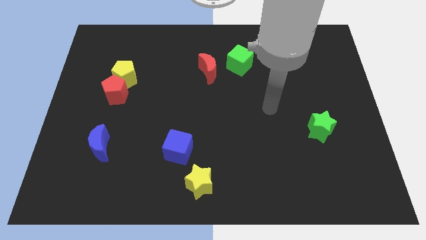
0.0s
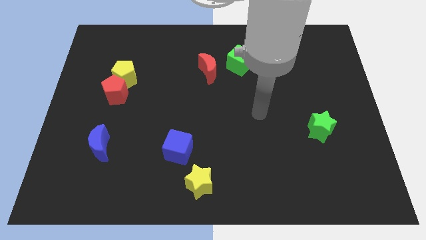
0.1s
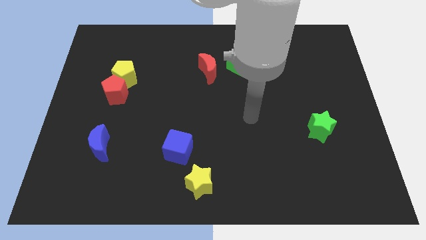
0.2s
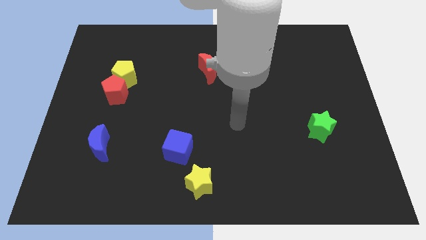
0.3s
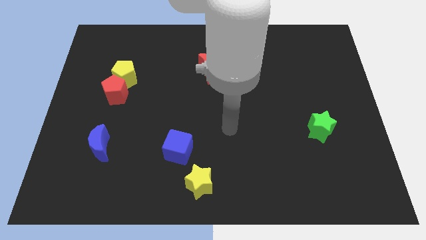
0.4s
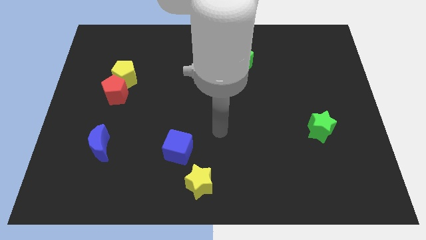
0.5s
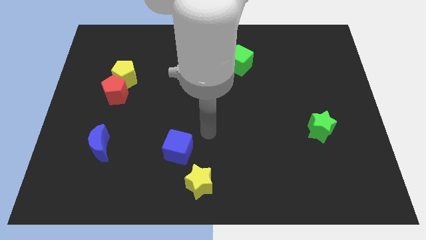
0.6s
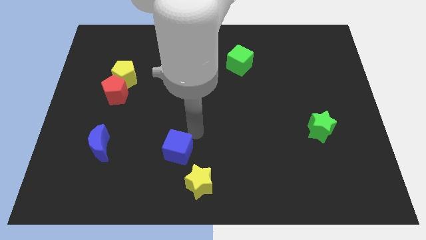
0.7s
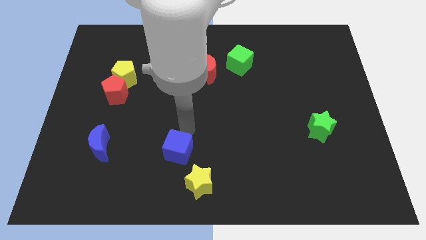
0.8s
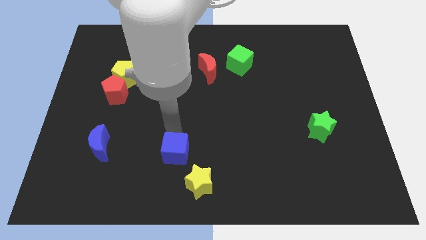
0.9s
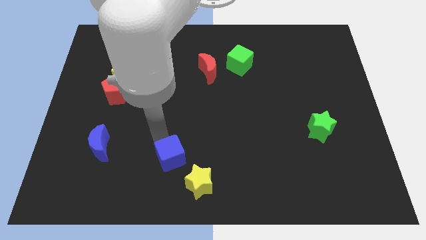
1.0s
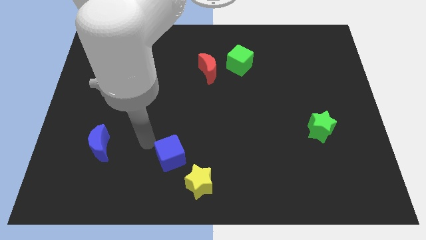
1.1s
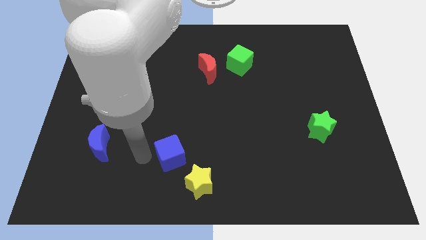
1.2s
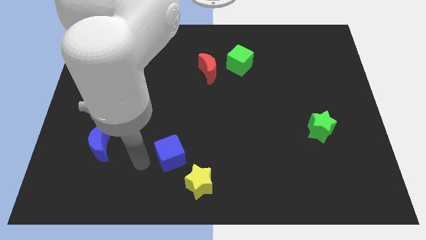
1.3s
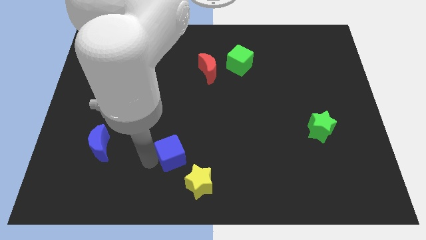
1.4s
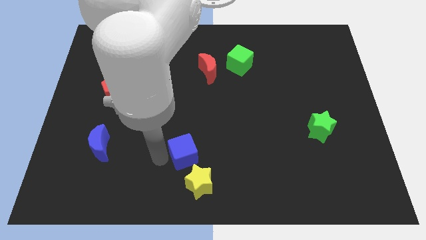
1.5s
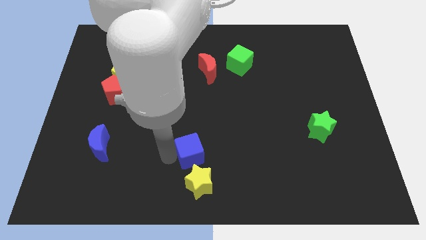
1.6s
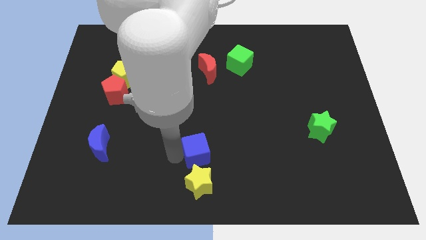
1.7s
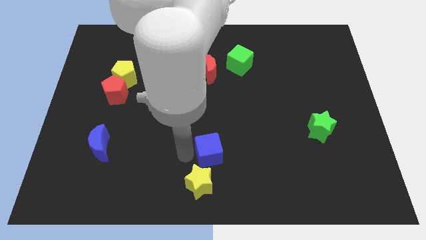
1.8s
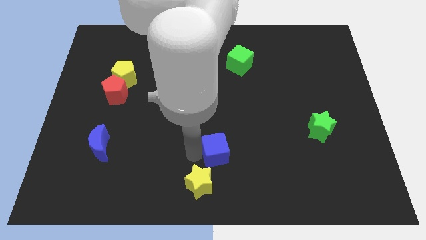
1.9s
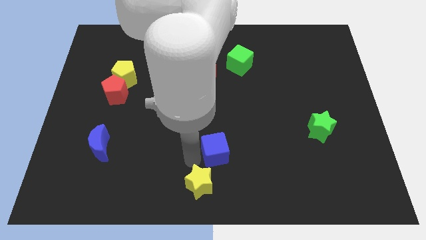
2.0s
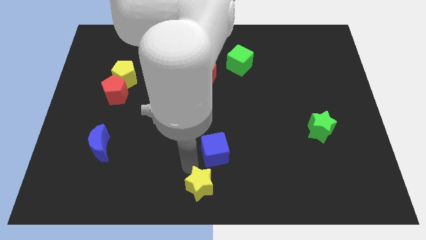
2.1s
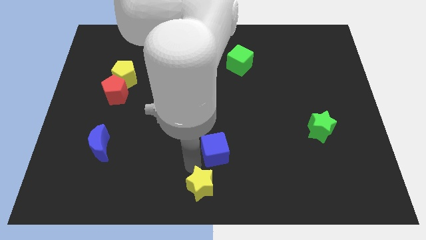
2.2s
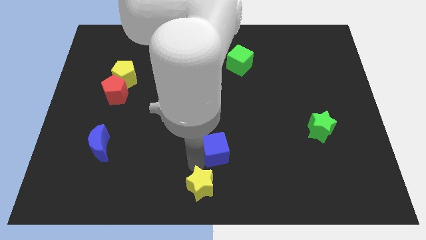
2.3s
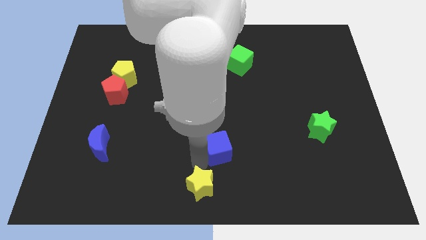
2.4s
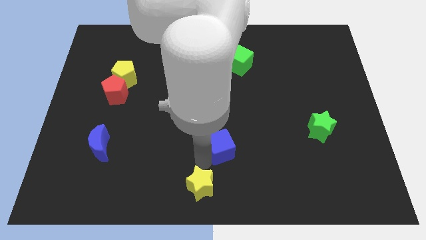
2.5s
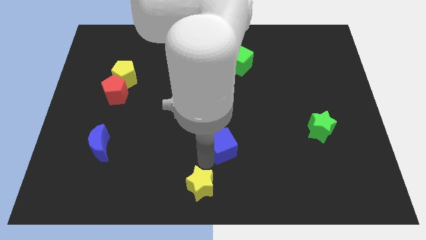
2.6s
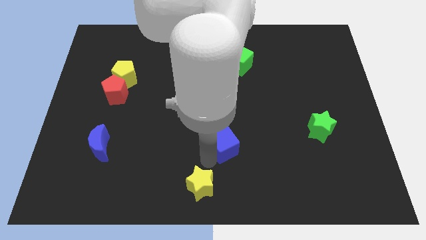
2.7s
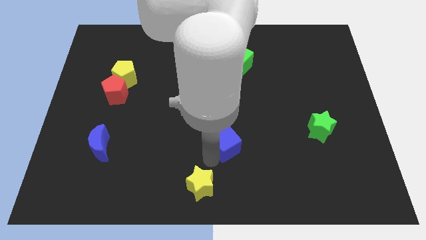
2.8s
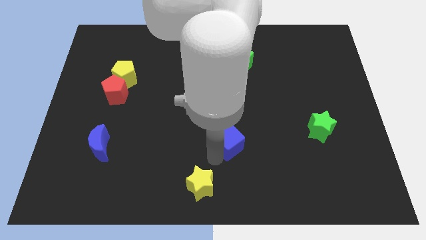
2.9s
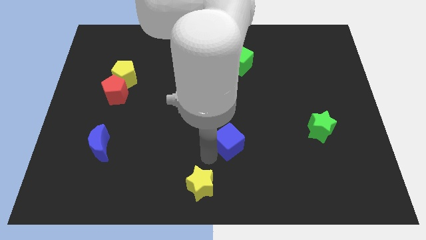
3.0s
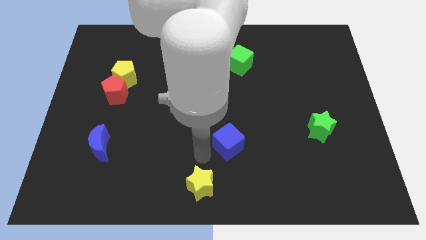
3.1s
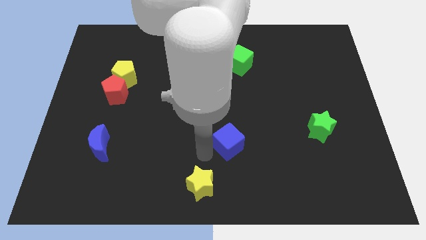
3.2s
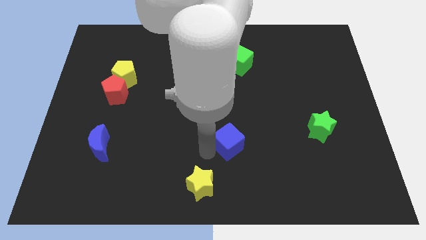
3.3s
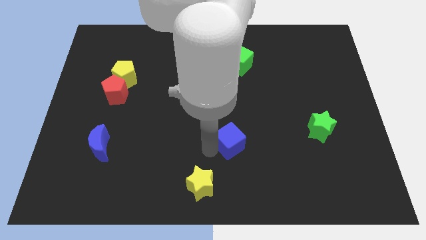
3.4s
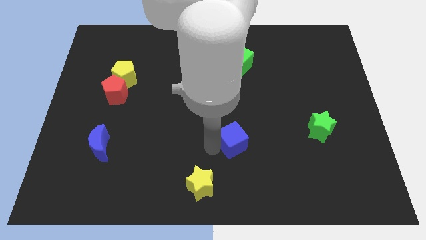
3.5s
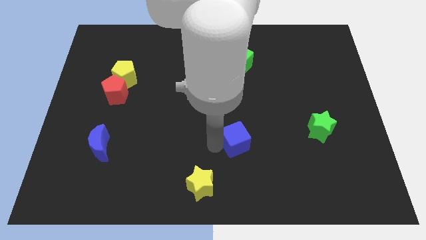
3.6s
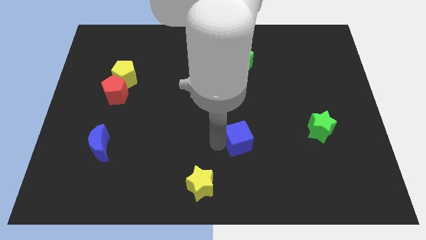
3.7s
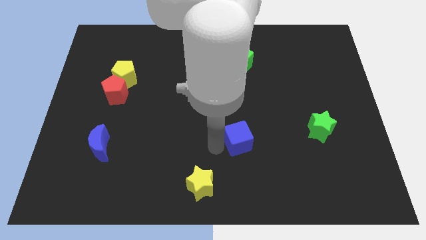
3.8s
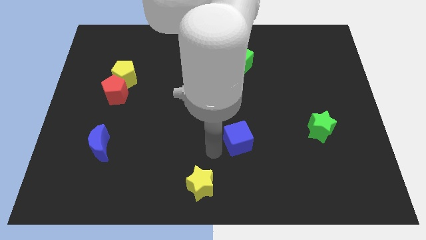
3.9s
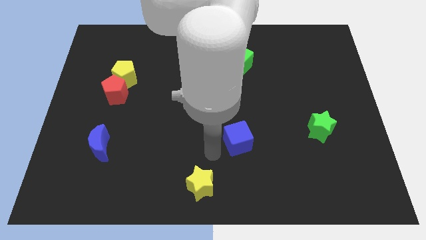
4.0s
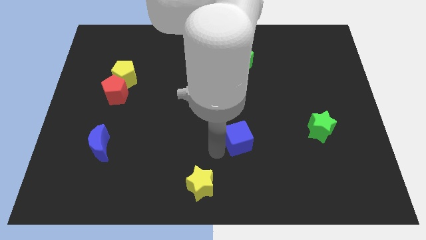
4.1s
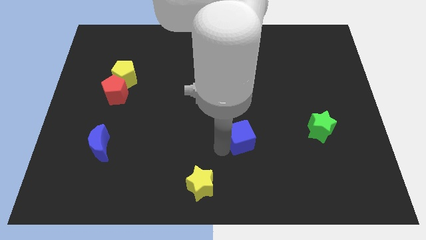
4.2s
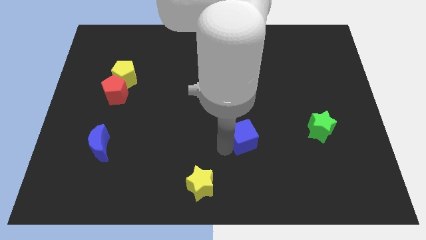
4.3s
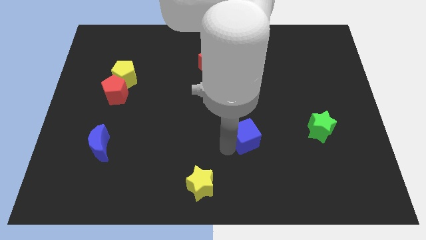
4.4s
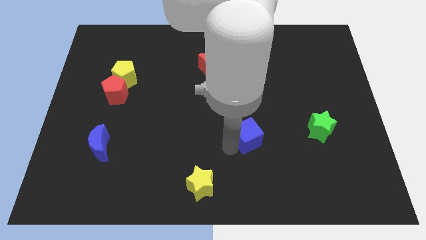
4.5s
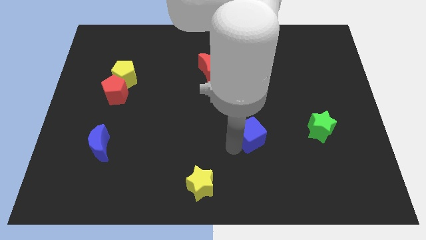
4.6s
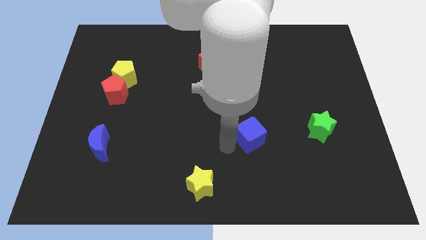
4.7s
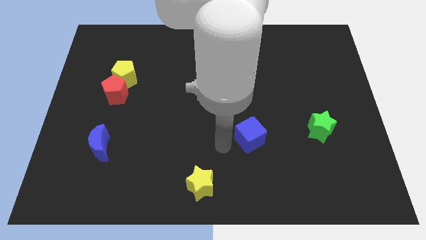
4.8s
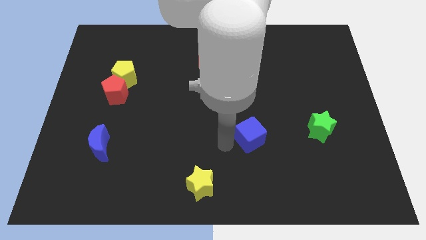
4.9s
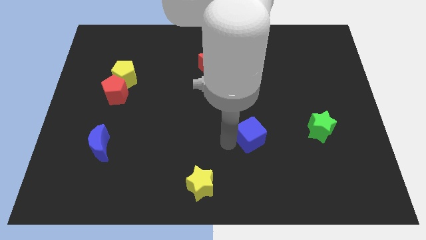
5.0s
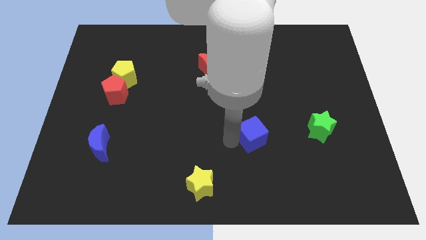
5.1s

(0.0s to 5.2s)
push the blue cube to the left of the green star
